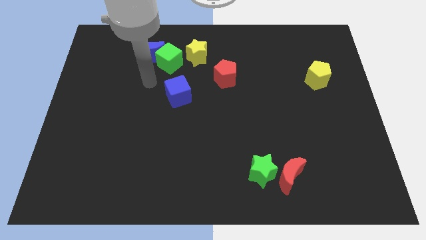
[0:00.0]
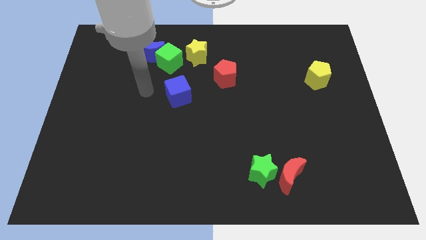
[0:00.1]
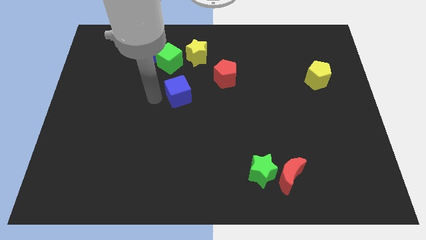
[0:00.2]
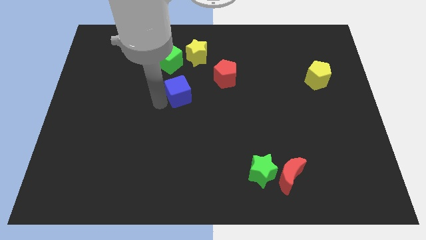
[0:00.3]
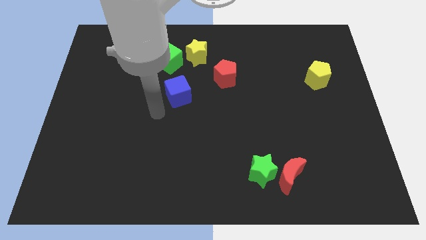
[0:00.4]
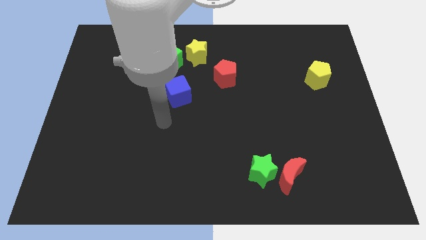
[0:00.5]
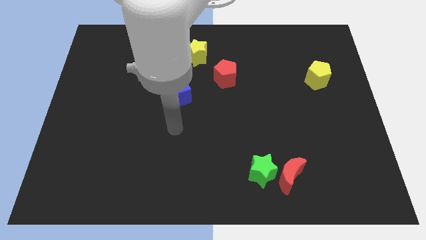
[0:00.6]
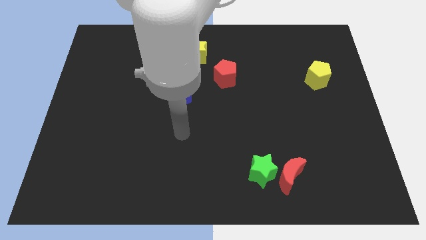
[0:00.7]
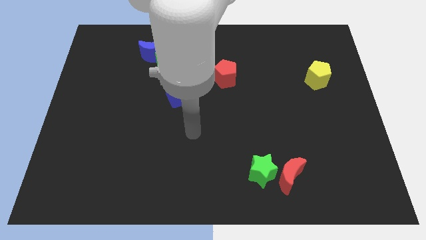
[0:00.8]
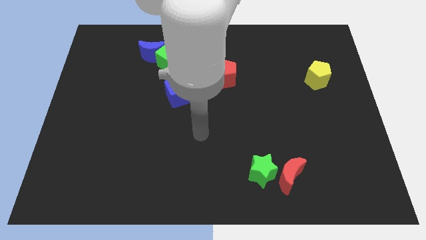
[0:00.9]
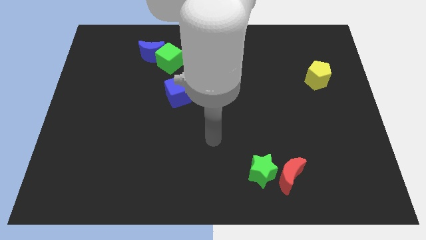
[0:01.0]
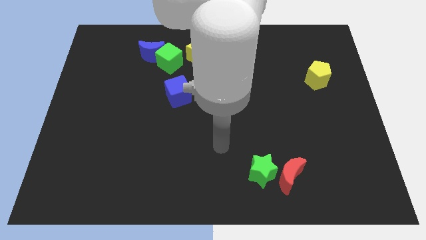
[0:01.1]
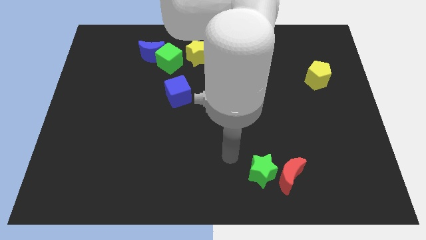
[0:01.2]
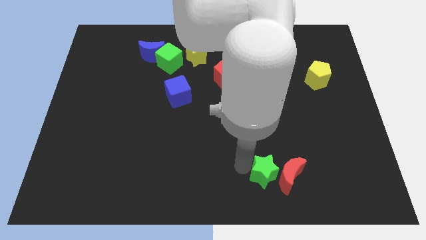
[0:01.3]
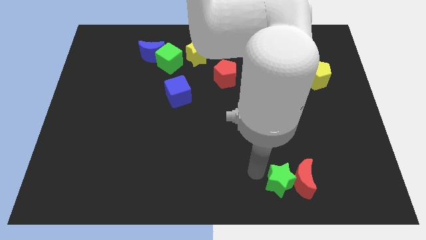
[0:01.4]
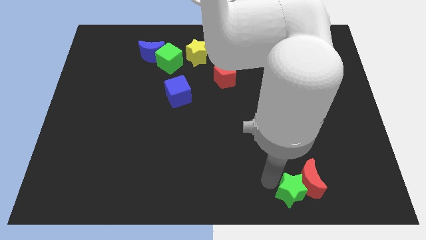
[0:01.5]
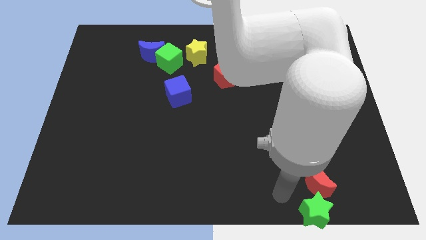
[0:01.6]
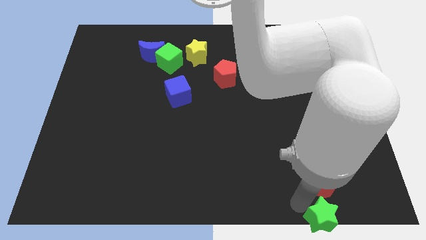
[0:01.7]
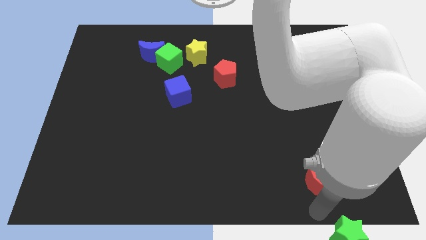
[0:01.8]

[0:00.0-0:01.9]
pull the red moon apart from the green star

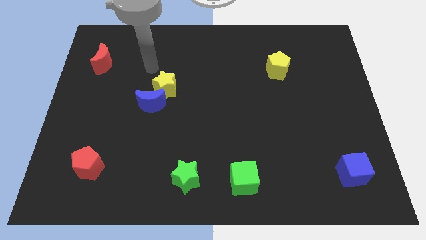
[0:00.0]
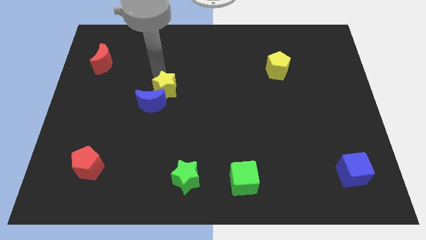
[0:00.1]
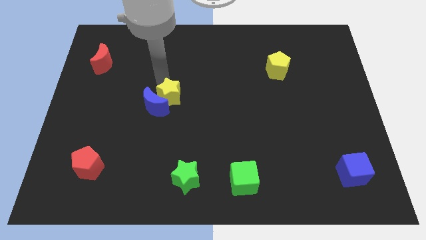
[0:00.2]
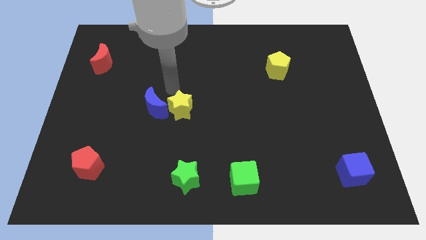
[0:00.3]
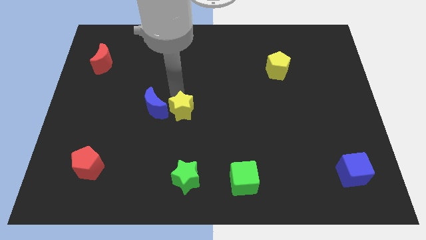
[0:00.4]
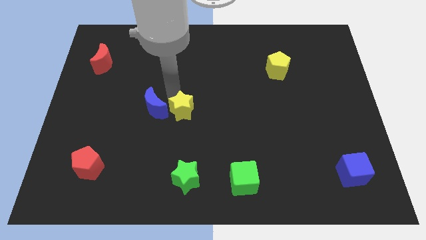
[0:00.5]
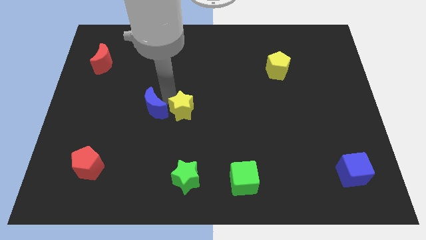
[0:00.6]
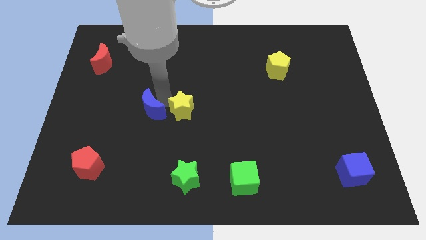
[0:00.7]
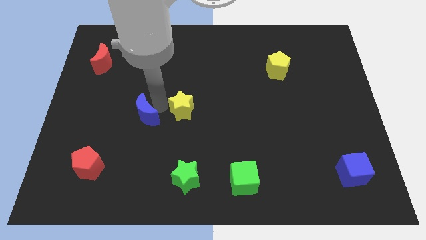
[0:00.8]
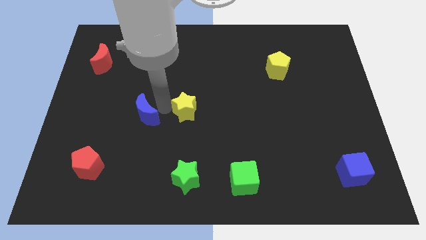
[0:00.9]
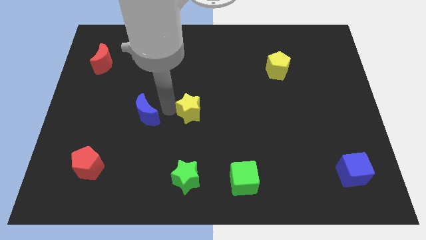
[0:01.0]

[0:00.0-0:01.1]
pull the blue moon apart from the yellow star

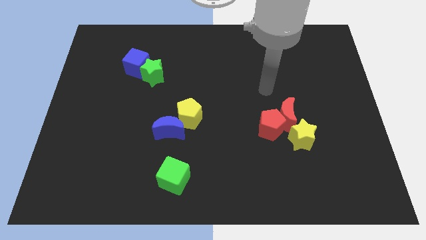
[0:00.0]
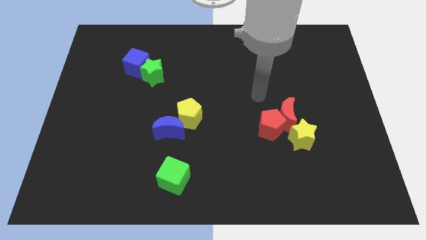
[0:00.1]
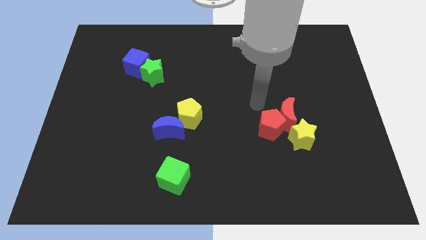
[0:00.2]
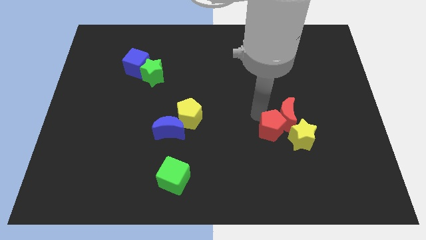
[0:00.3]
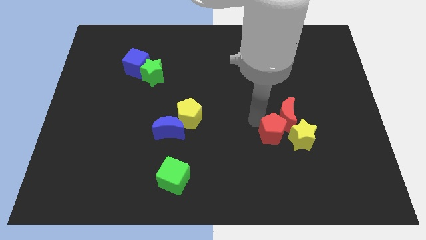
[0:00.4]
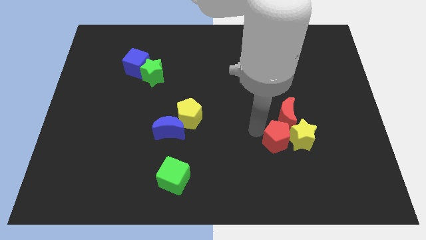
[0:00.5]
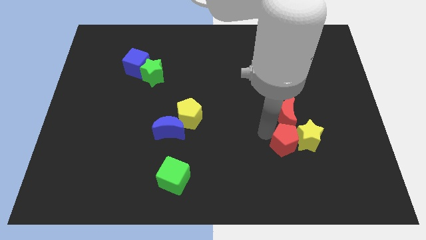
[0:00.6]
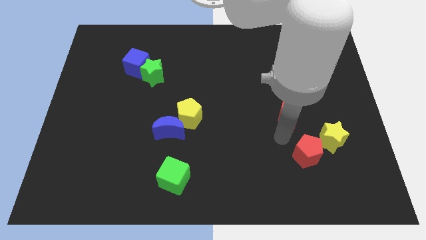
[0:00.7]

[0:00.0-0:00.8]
separate the red moon from the red pentagon and yellow star

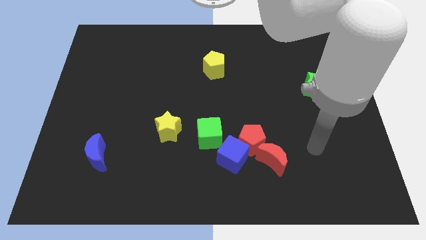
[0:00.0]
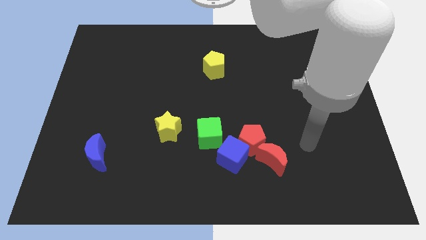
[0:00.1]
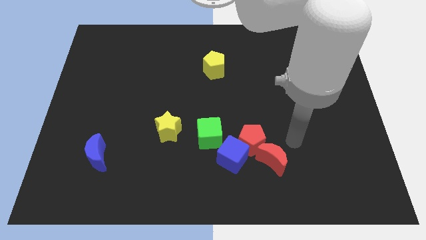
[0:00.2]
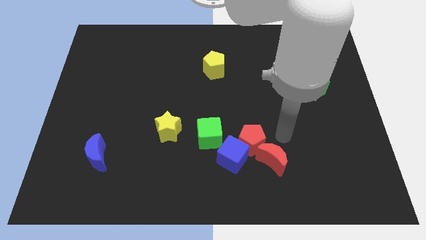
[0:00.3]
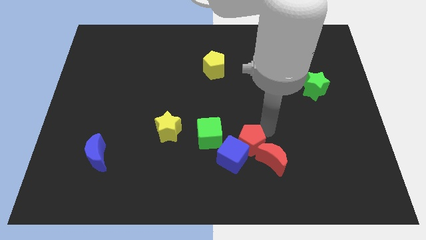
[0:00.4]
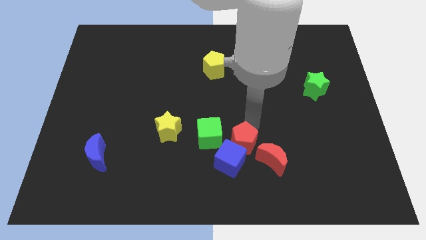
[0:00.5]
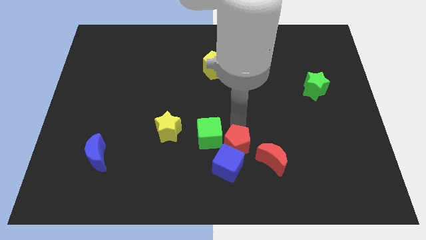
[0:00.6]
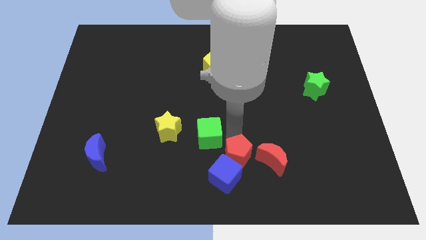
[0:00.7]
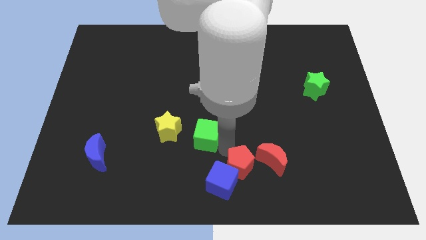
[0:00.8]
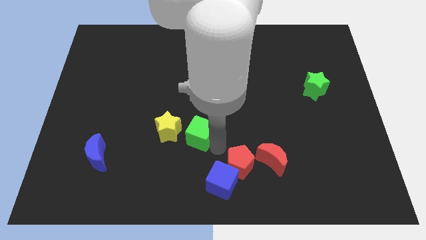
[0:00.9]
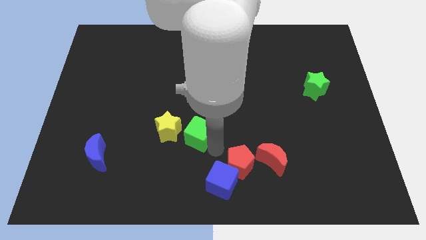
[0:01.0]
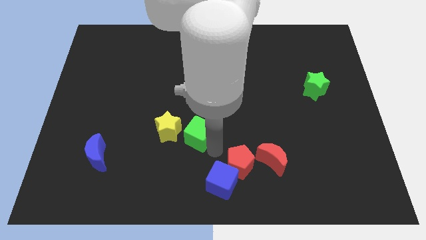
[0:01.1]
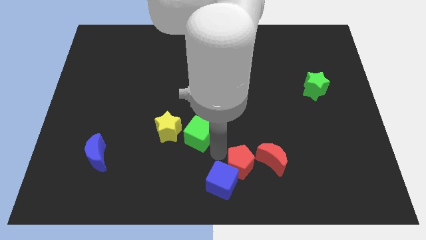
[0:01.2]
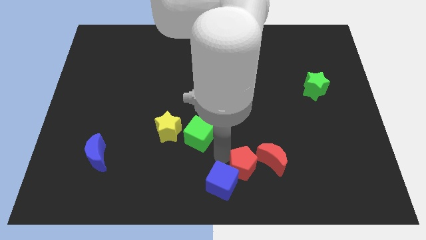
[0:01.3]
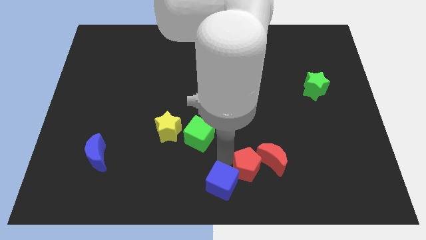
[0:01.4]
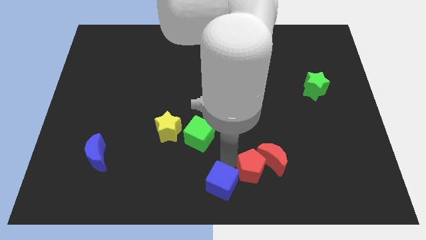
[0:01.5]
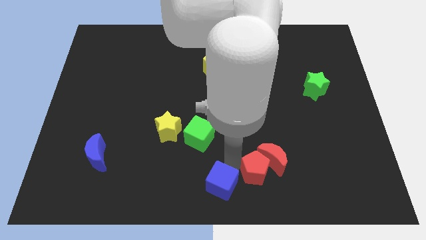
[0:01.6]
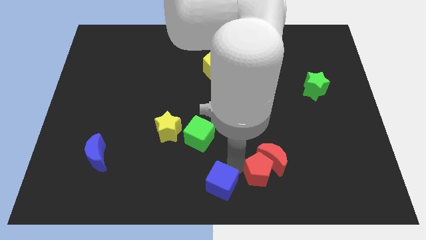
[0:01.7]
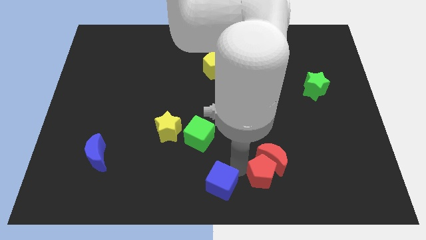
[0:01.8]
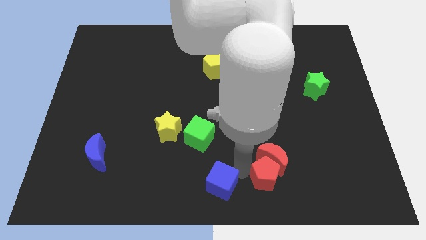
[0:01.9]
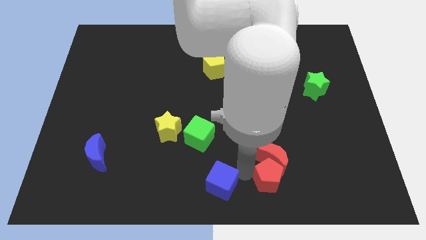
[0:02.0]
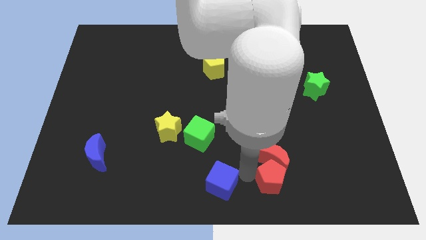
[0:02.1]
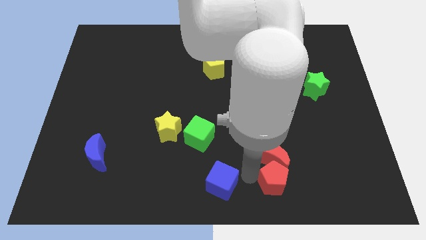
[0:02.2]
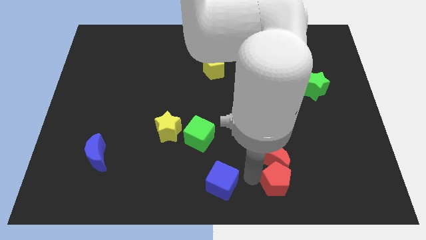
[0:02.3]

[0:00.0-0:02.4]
separate the red pentagon from the blue cube, red moon, and green cube

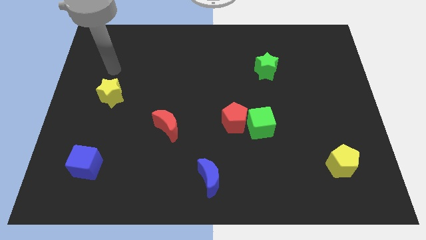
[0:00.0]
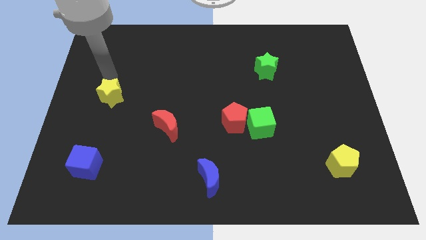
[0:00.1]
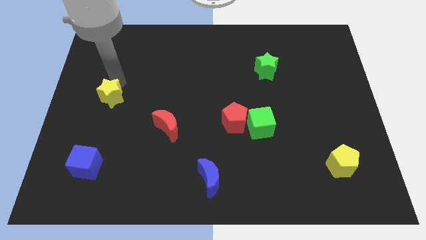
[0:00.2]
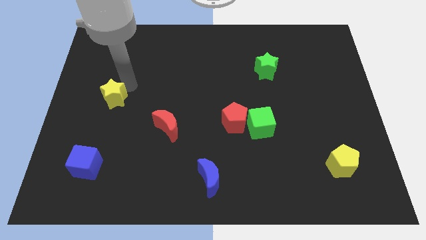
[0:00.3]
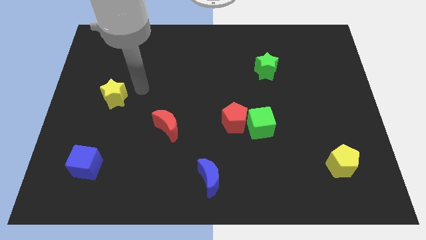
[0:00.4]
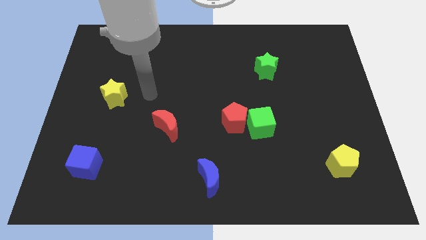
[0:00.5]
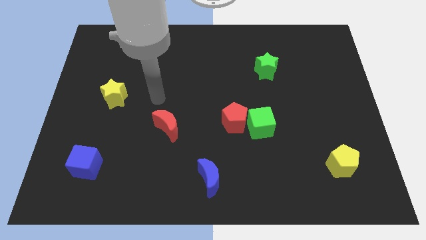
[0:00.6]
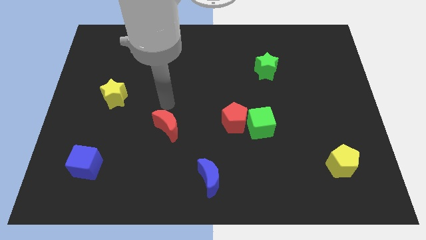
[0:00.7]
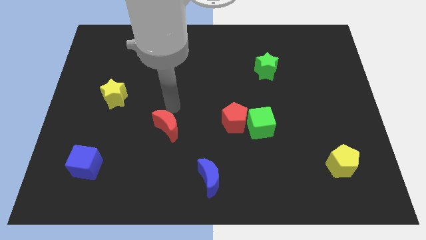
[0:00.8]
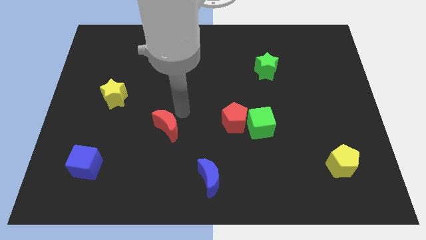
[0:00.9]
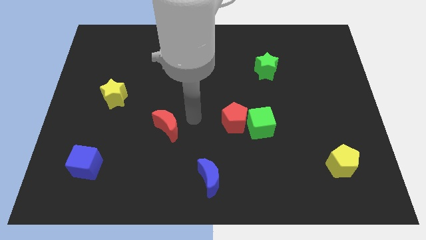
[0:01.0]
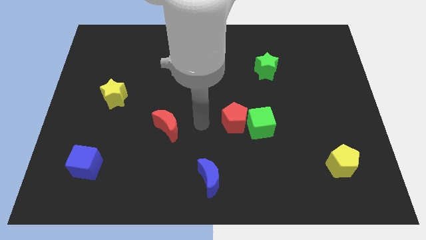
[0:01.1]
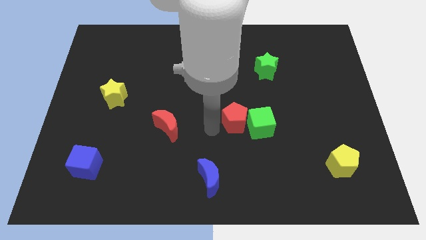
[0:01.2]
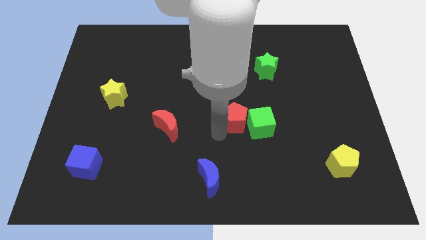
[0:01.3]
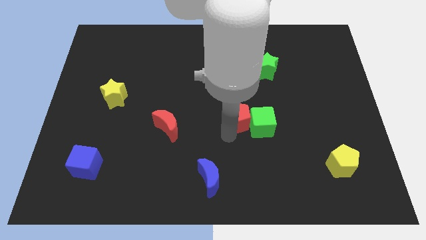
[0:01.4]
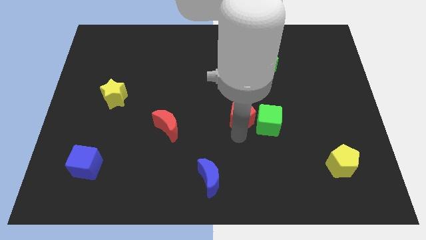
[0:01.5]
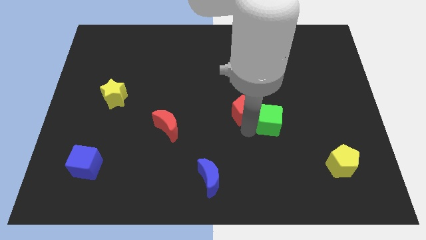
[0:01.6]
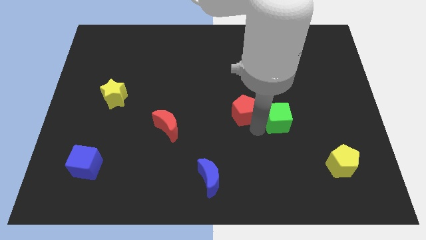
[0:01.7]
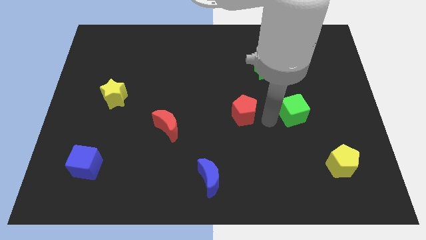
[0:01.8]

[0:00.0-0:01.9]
separate the red pentagon from the green cube

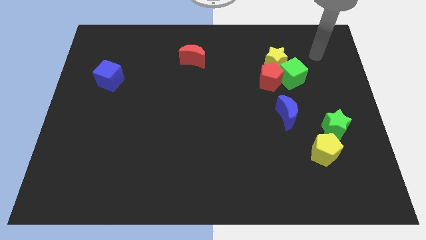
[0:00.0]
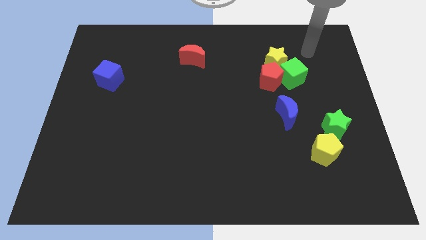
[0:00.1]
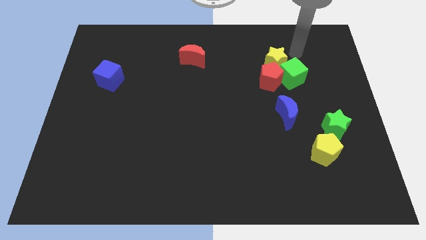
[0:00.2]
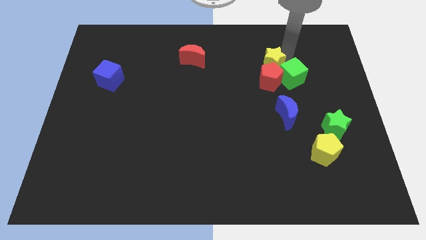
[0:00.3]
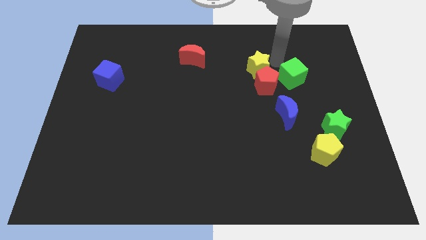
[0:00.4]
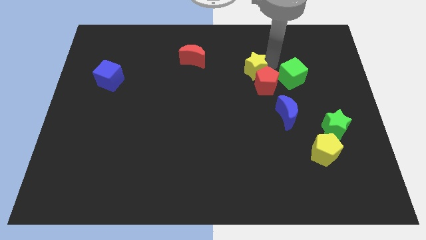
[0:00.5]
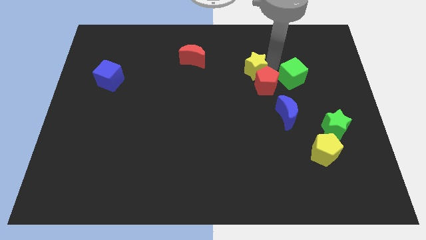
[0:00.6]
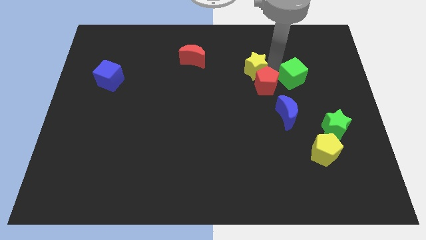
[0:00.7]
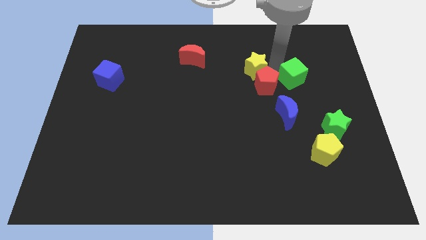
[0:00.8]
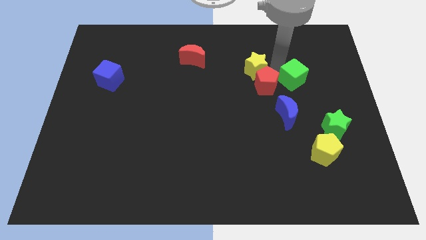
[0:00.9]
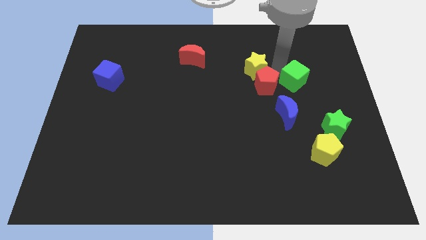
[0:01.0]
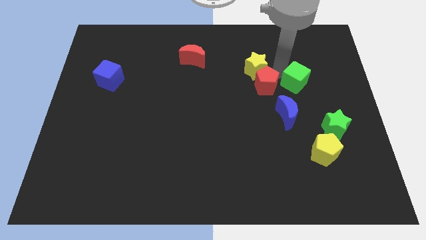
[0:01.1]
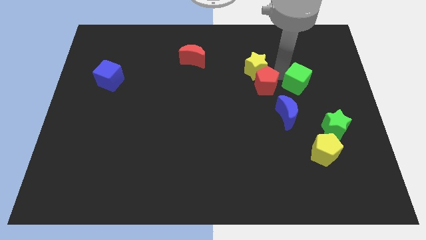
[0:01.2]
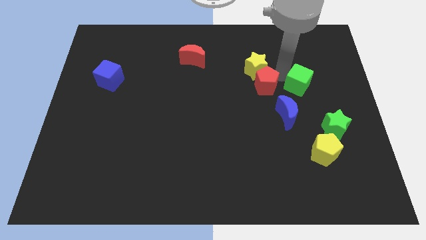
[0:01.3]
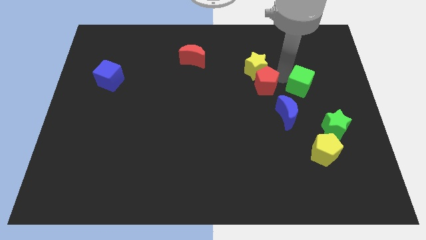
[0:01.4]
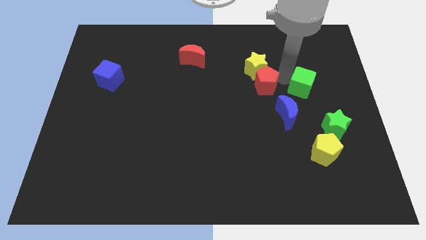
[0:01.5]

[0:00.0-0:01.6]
separate the green cube from the red pentagon and yellow star
